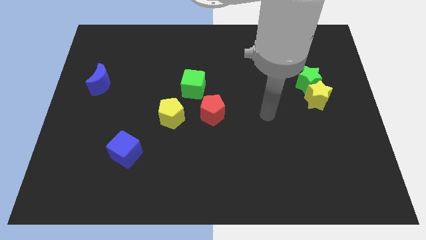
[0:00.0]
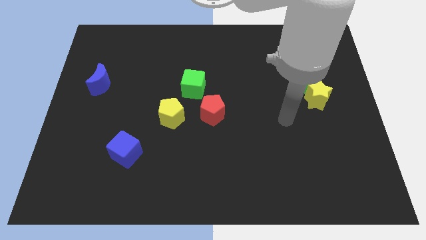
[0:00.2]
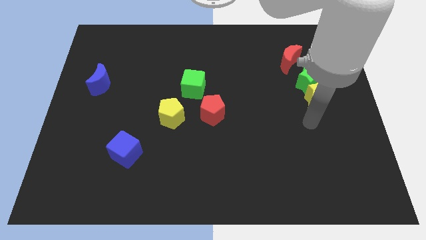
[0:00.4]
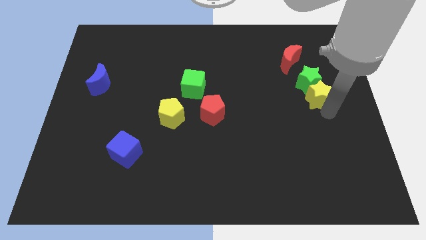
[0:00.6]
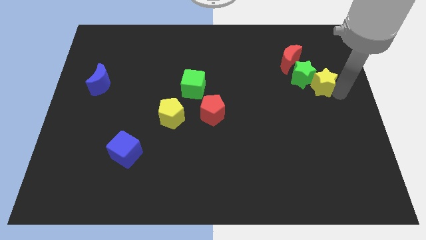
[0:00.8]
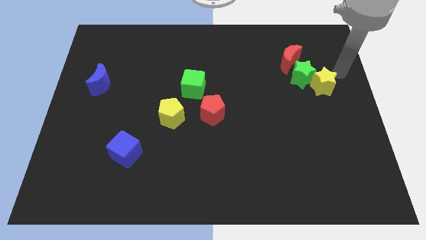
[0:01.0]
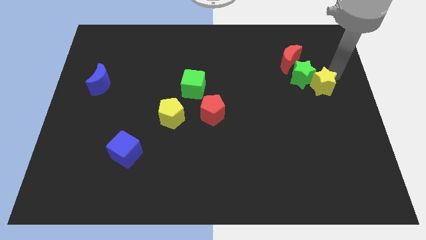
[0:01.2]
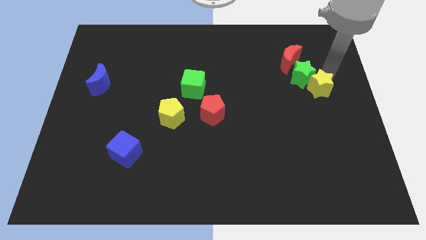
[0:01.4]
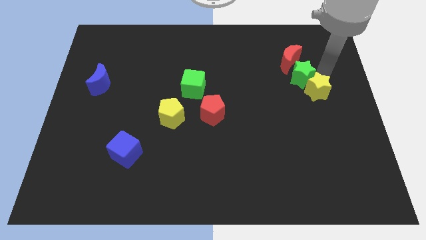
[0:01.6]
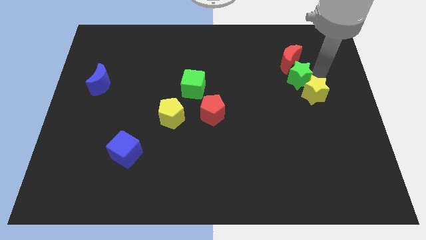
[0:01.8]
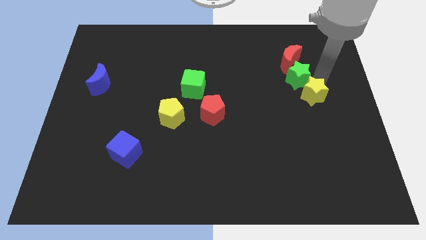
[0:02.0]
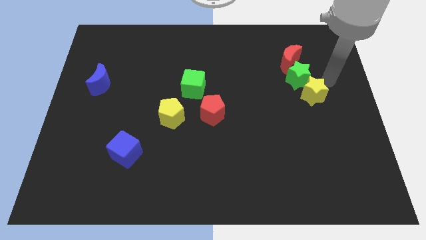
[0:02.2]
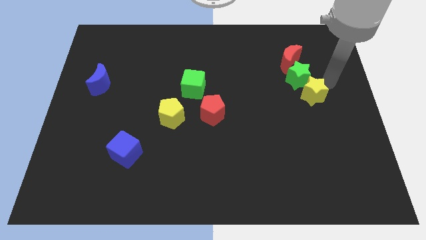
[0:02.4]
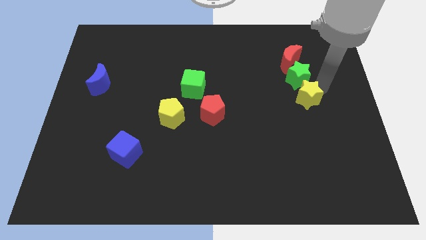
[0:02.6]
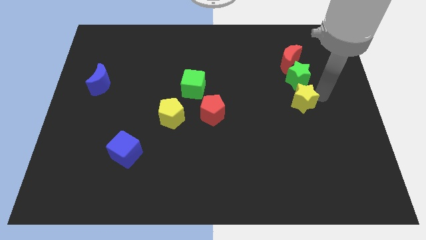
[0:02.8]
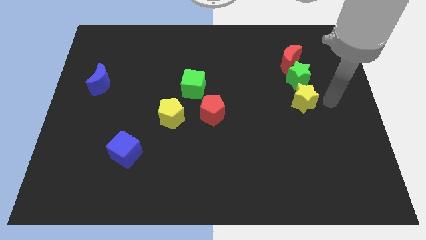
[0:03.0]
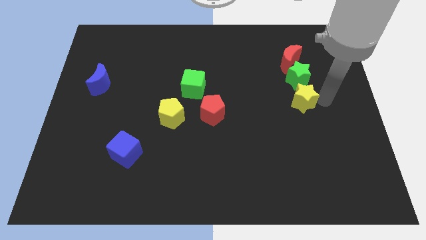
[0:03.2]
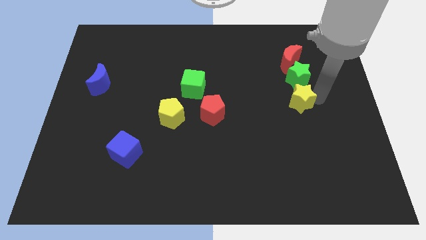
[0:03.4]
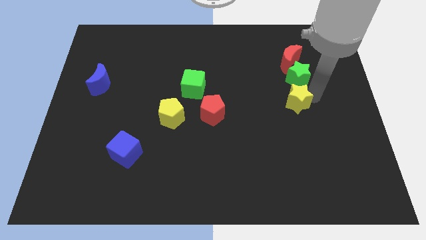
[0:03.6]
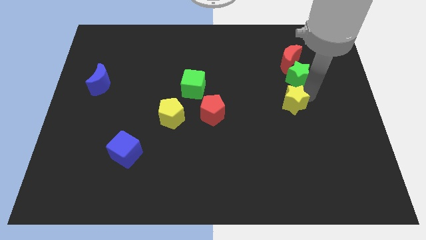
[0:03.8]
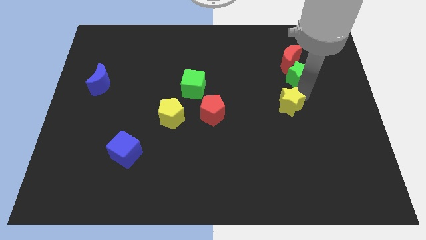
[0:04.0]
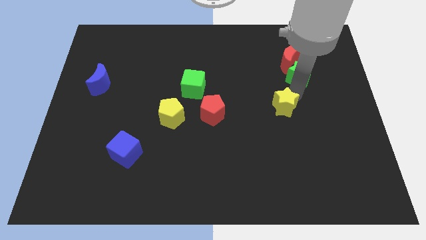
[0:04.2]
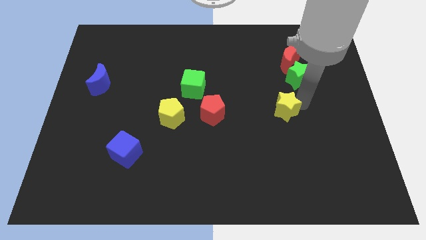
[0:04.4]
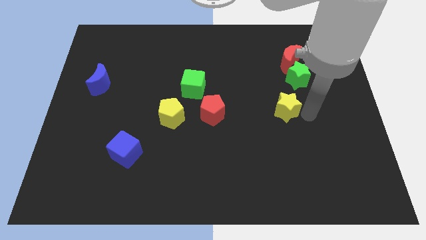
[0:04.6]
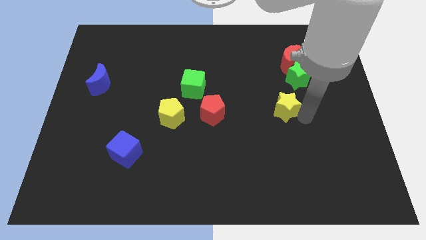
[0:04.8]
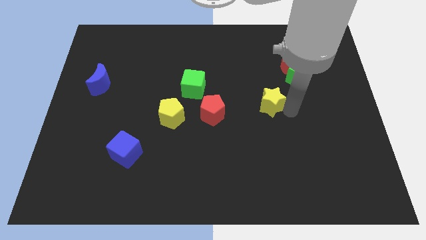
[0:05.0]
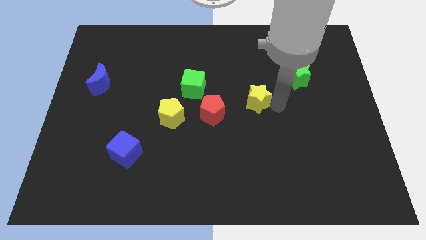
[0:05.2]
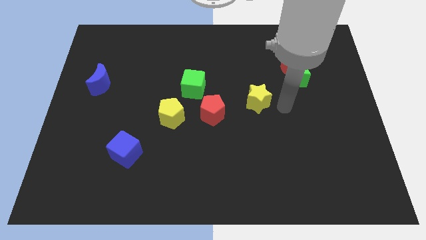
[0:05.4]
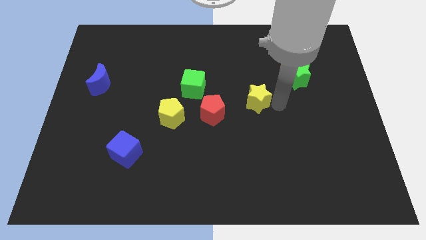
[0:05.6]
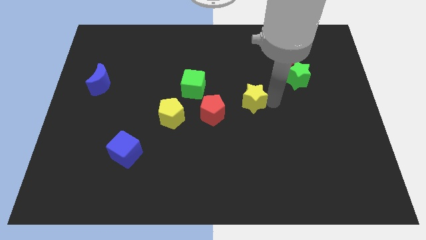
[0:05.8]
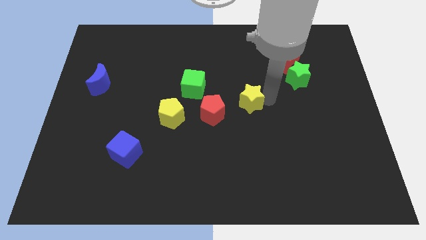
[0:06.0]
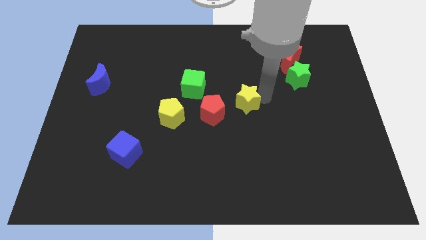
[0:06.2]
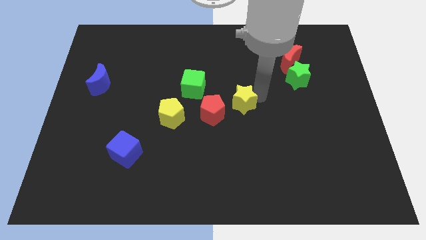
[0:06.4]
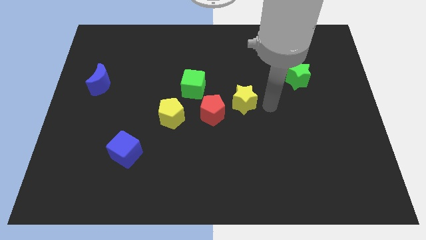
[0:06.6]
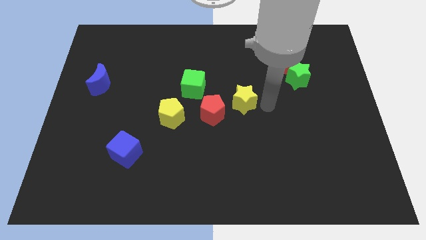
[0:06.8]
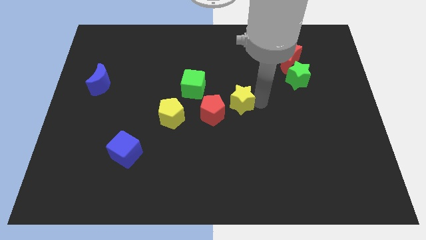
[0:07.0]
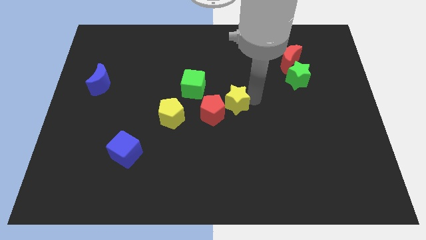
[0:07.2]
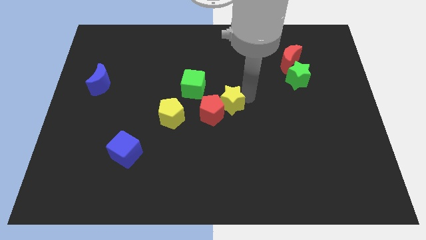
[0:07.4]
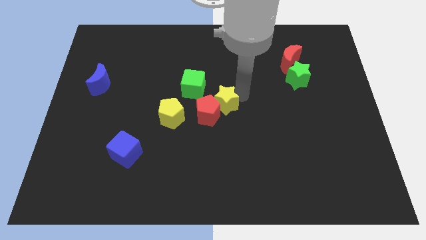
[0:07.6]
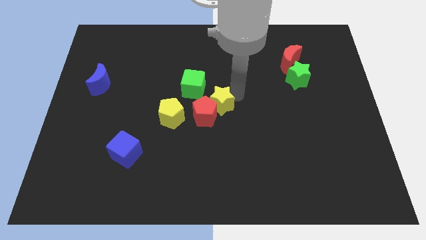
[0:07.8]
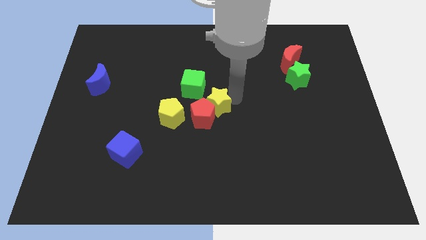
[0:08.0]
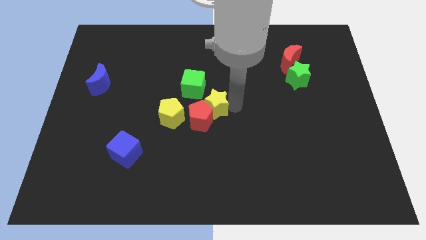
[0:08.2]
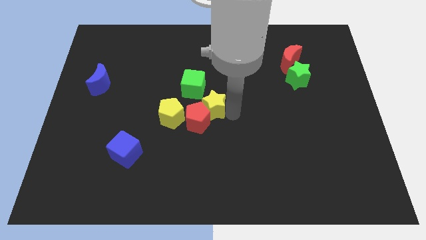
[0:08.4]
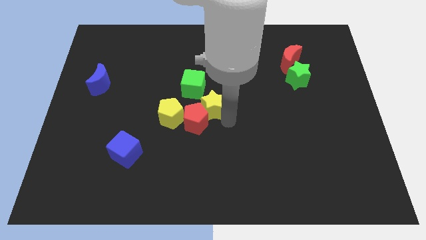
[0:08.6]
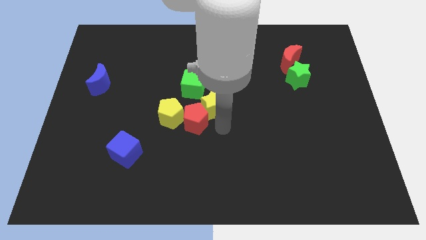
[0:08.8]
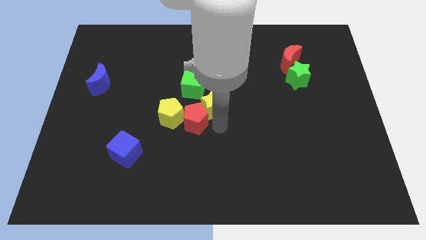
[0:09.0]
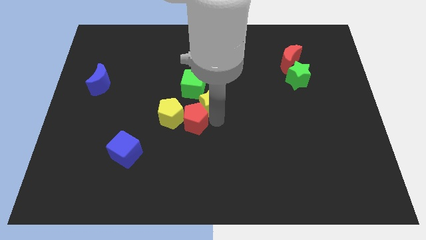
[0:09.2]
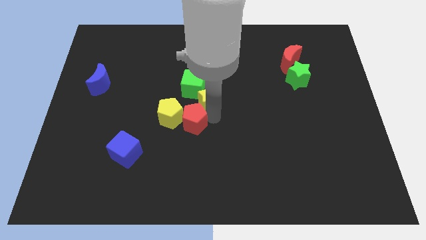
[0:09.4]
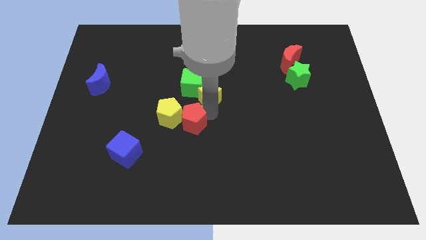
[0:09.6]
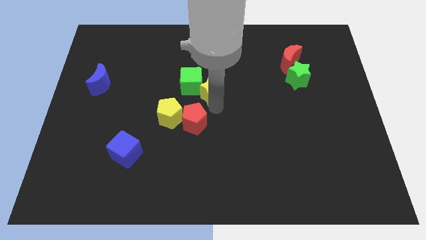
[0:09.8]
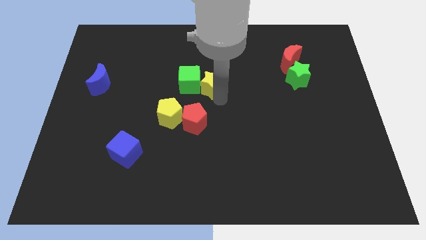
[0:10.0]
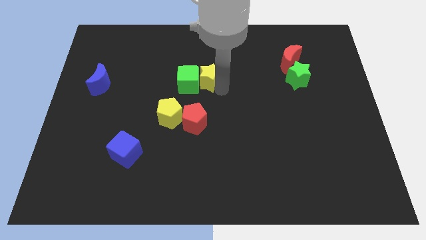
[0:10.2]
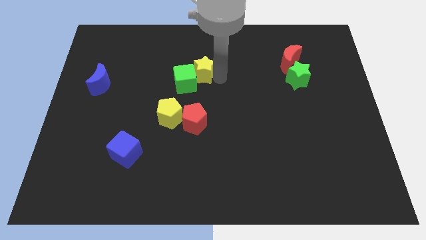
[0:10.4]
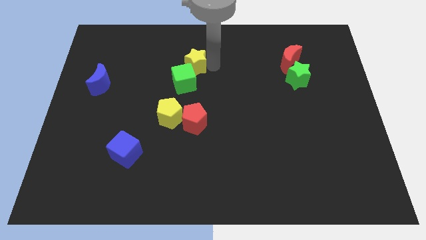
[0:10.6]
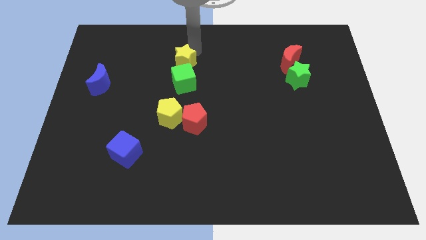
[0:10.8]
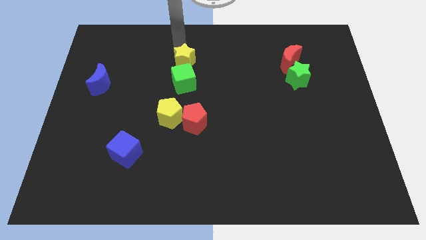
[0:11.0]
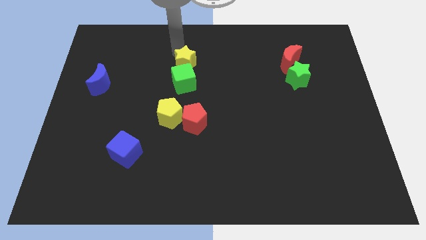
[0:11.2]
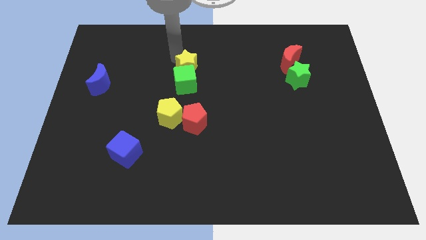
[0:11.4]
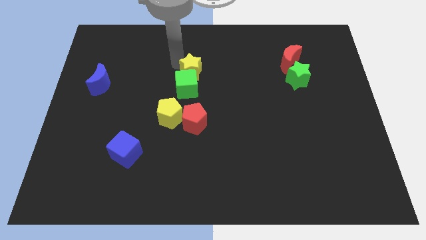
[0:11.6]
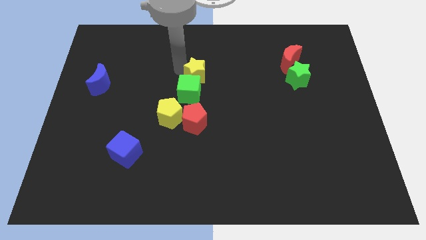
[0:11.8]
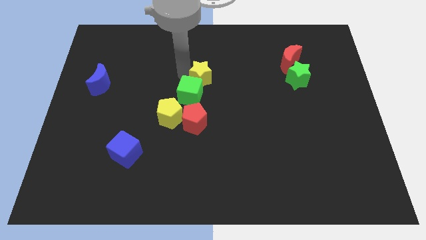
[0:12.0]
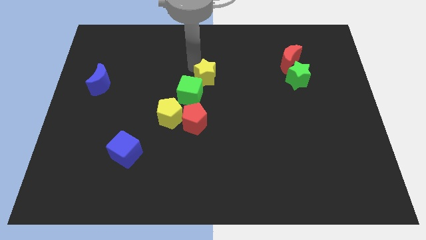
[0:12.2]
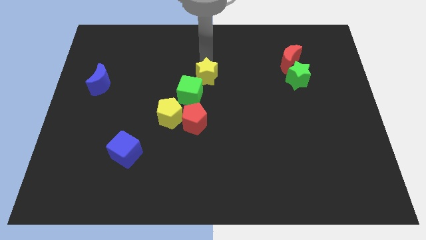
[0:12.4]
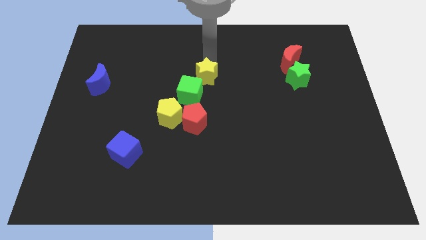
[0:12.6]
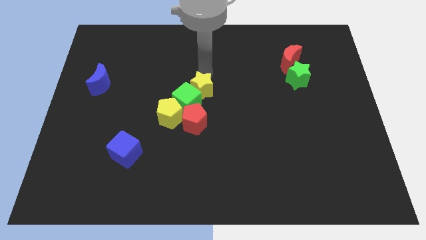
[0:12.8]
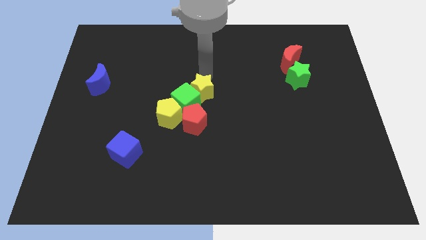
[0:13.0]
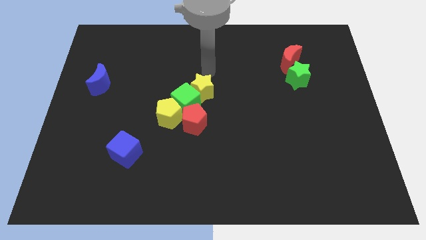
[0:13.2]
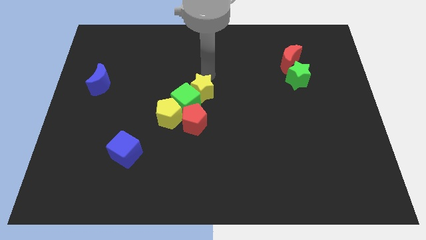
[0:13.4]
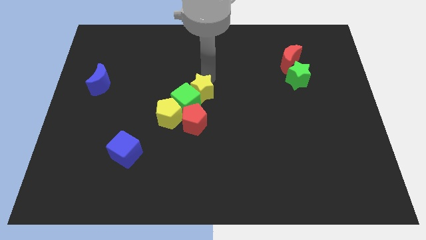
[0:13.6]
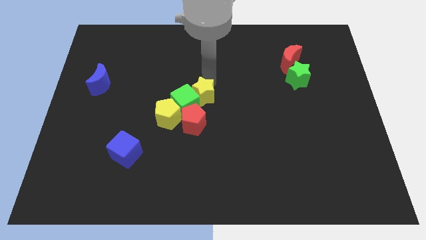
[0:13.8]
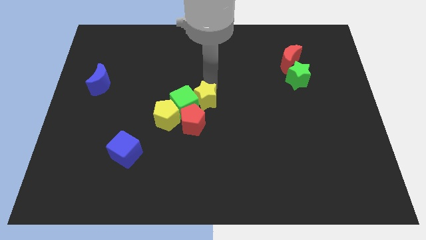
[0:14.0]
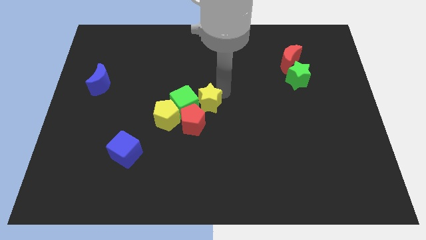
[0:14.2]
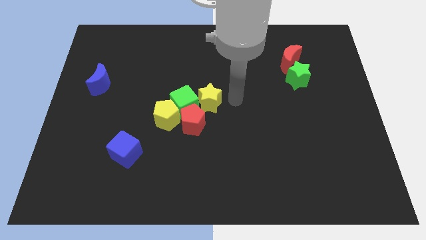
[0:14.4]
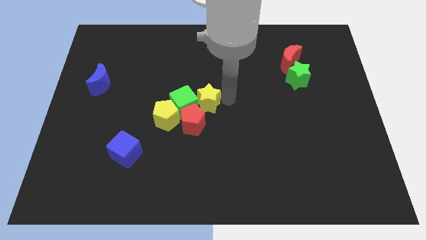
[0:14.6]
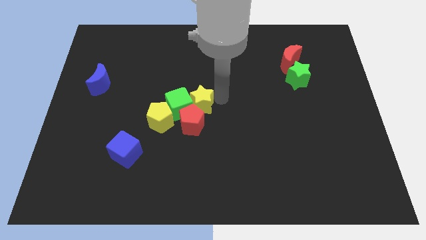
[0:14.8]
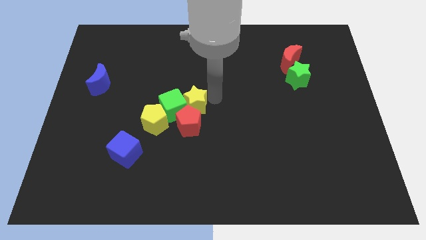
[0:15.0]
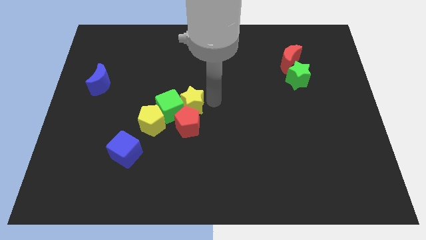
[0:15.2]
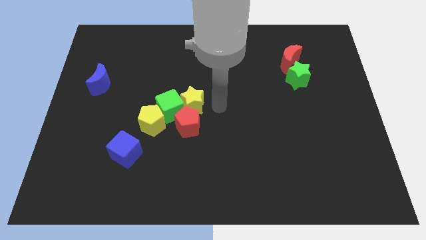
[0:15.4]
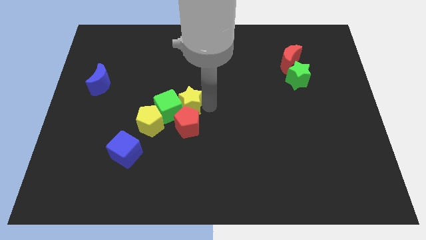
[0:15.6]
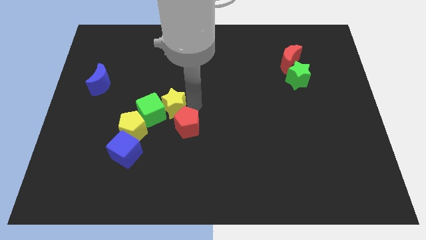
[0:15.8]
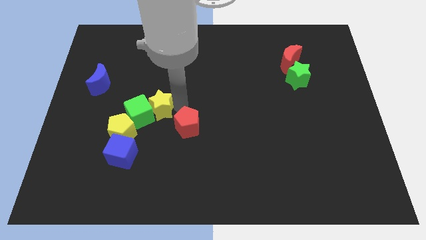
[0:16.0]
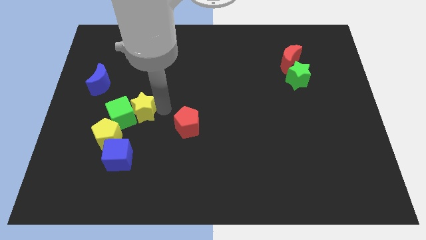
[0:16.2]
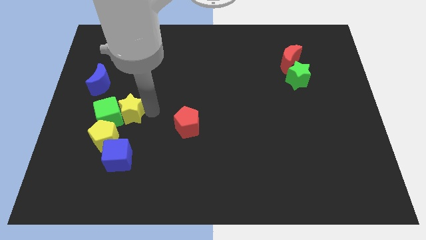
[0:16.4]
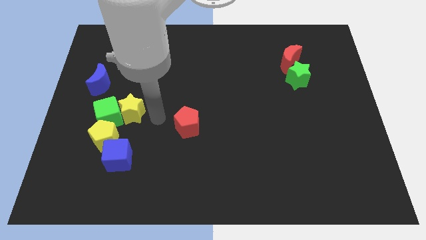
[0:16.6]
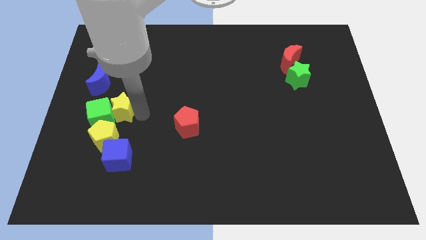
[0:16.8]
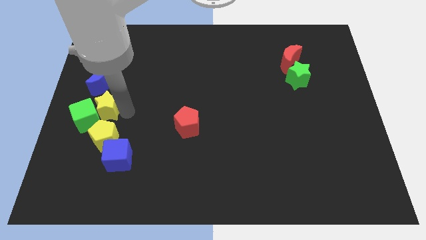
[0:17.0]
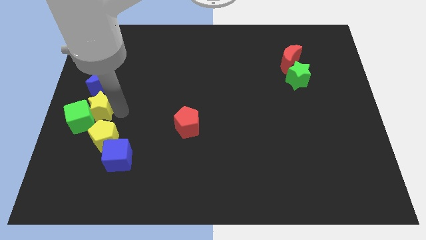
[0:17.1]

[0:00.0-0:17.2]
move the yellow star to the left side of the board
